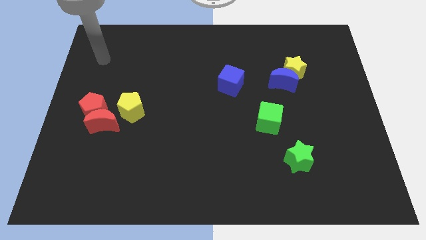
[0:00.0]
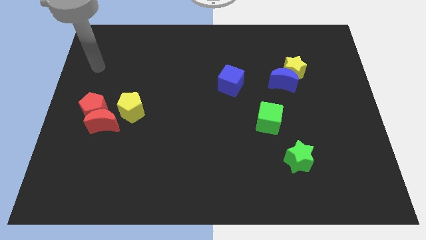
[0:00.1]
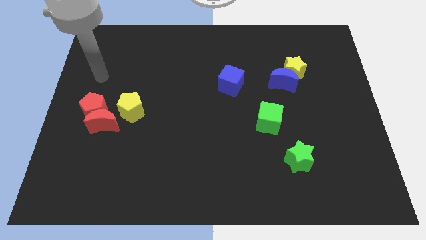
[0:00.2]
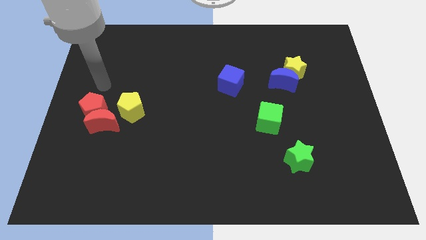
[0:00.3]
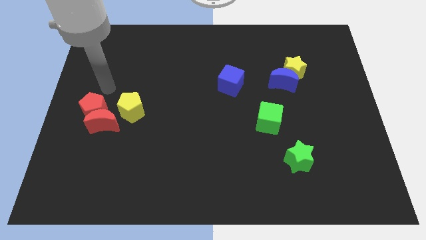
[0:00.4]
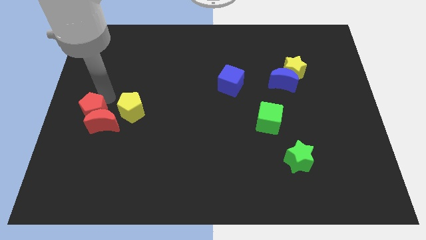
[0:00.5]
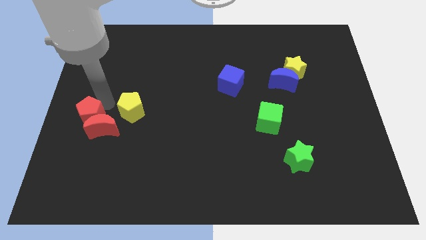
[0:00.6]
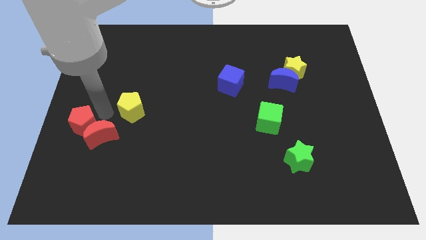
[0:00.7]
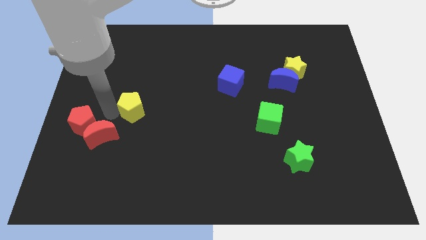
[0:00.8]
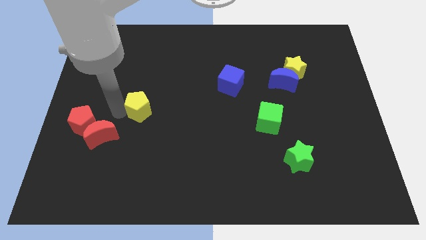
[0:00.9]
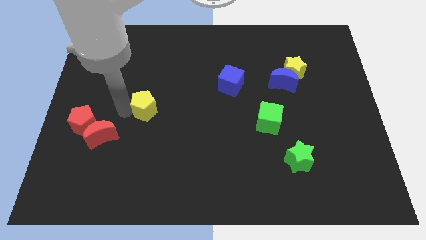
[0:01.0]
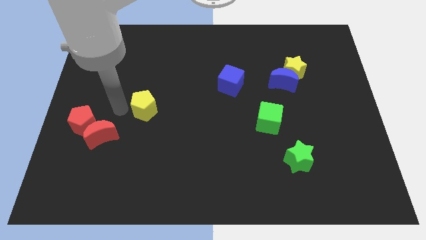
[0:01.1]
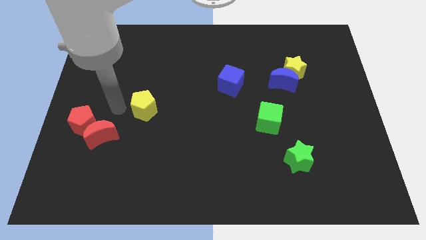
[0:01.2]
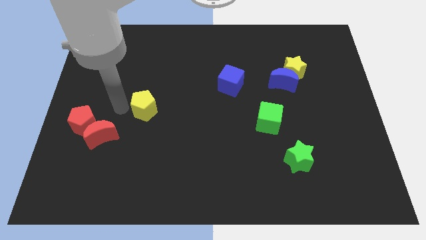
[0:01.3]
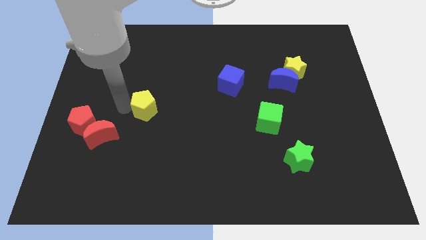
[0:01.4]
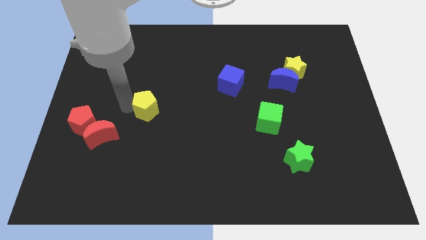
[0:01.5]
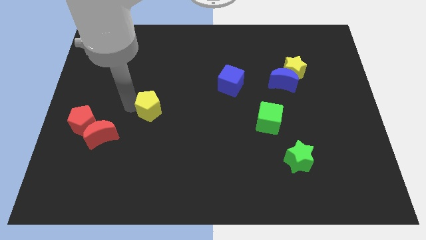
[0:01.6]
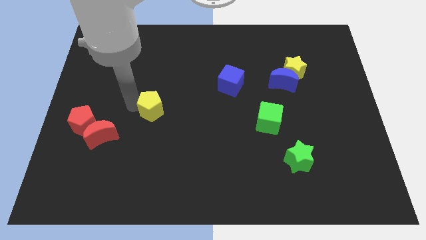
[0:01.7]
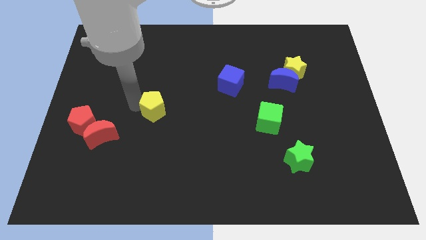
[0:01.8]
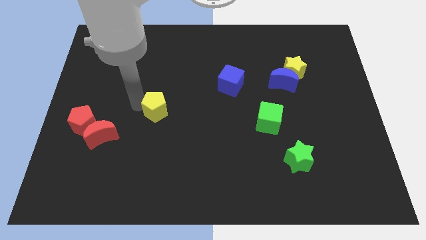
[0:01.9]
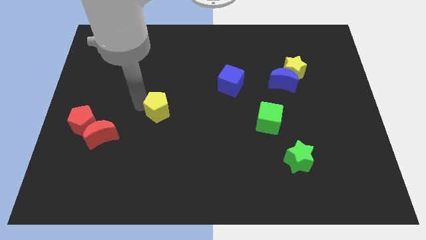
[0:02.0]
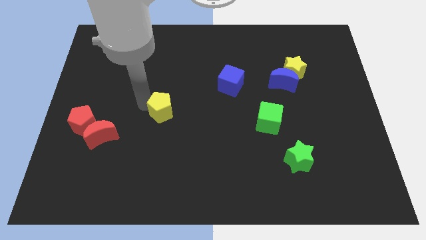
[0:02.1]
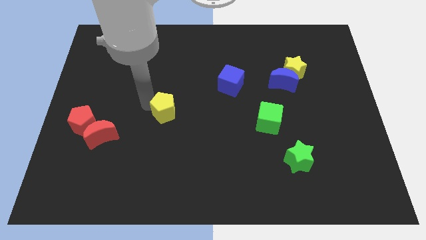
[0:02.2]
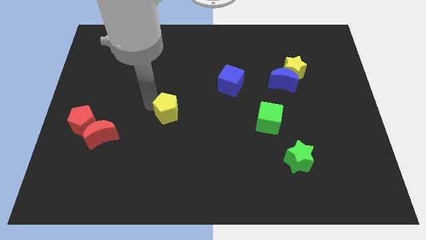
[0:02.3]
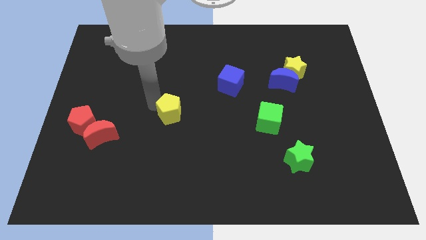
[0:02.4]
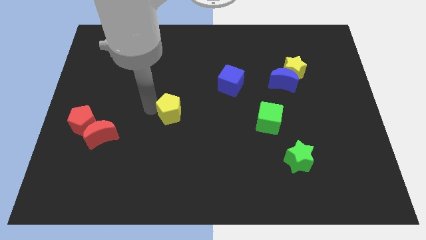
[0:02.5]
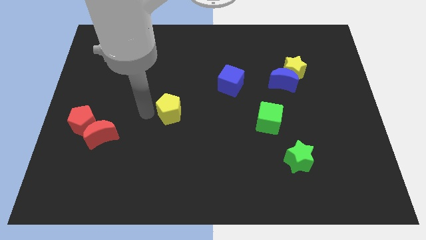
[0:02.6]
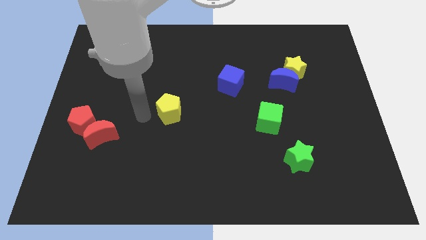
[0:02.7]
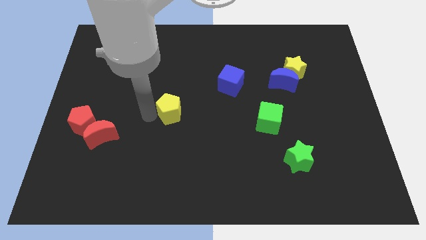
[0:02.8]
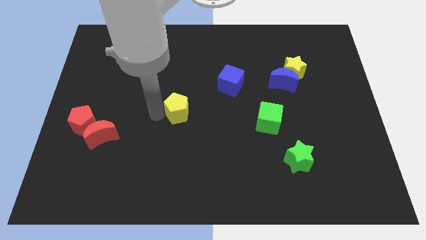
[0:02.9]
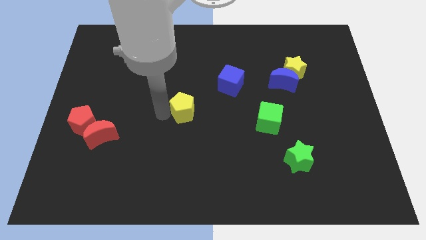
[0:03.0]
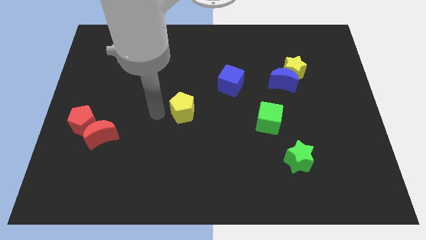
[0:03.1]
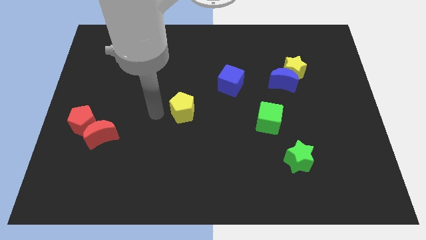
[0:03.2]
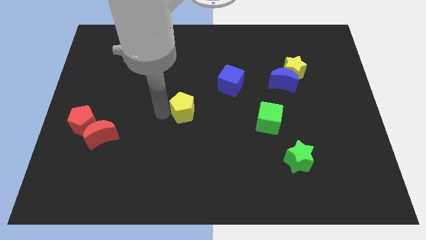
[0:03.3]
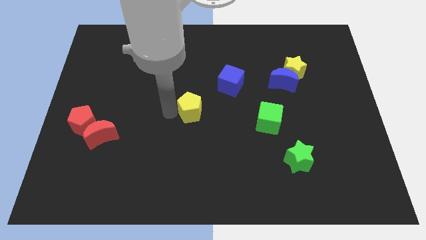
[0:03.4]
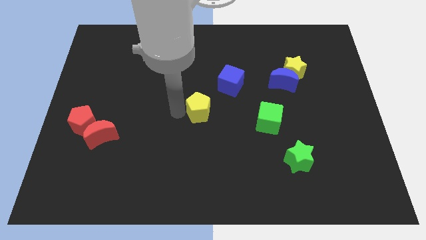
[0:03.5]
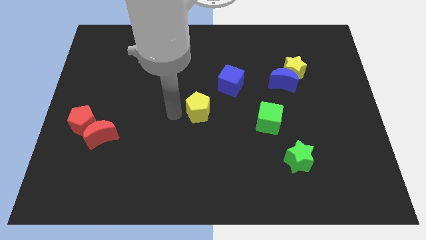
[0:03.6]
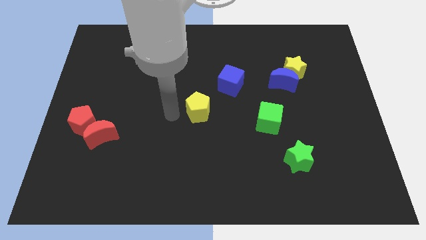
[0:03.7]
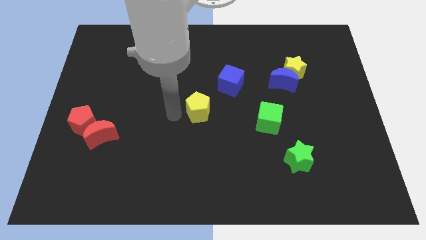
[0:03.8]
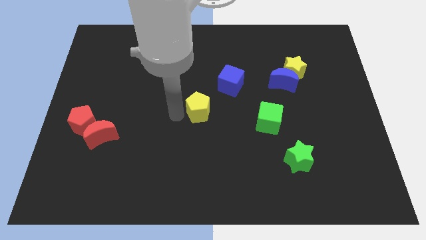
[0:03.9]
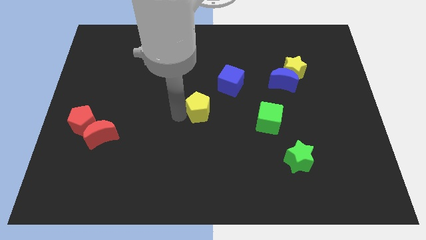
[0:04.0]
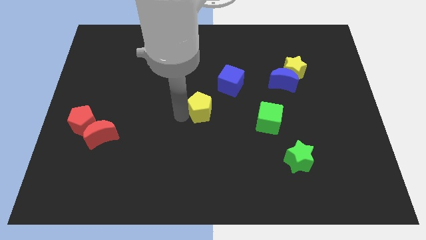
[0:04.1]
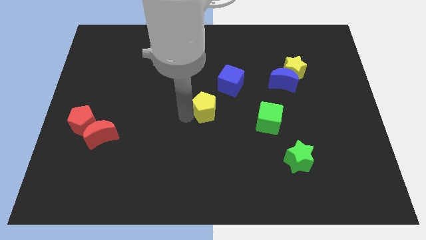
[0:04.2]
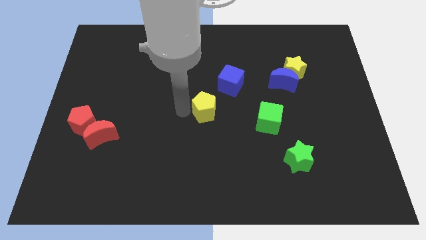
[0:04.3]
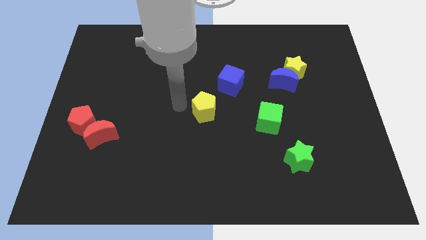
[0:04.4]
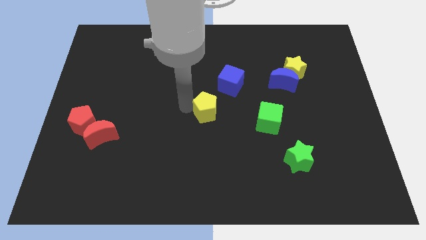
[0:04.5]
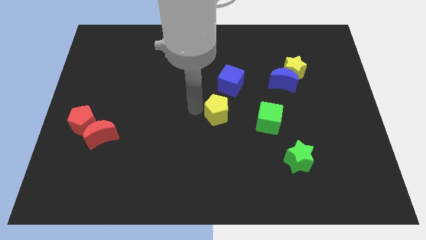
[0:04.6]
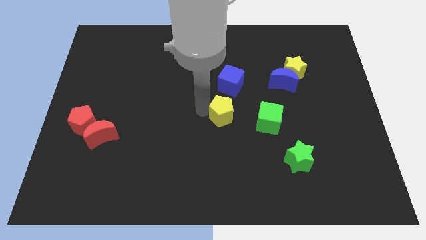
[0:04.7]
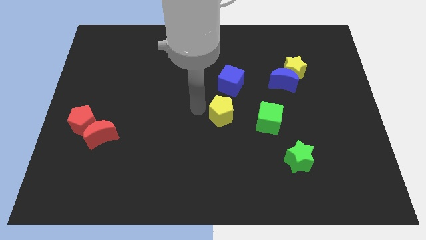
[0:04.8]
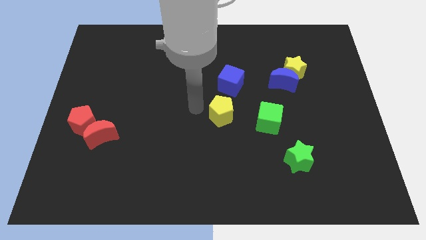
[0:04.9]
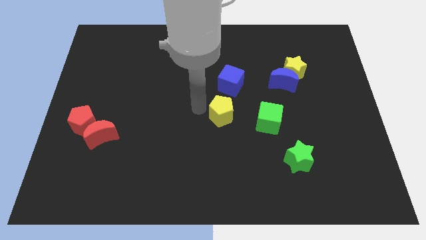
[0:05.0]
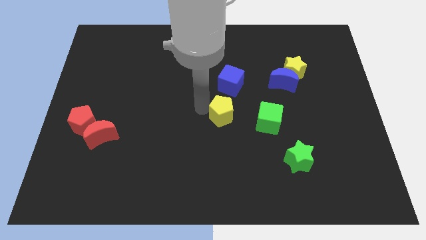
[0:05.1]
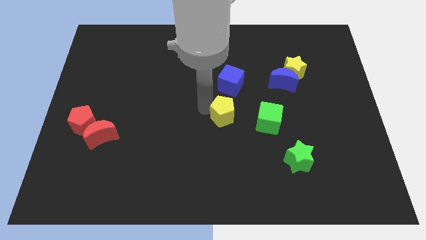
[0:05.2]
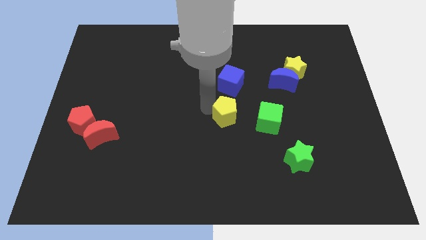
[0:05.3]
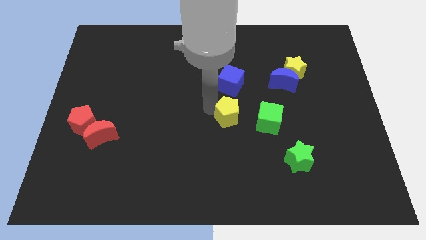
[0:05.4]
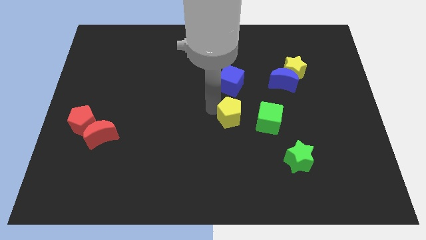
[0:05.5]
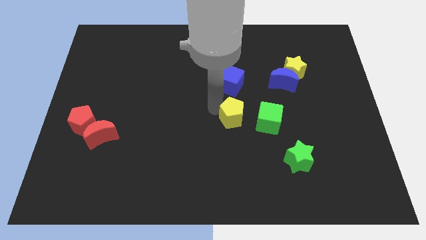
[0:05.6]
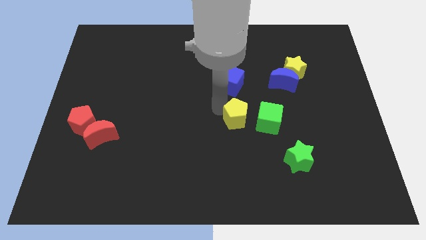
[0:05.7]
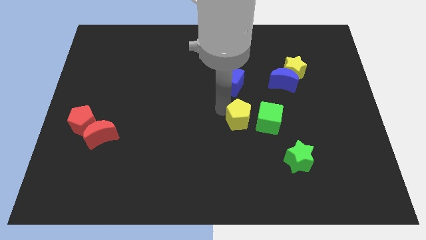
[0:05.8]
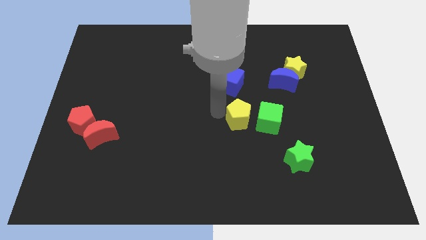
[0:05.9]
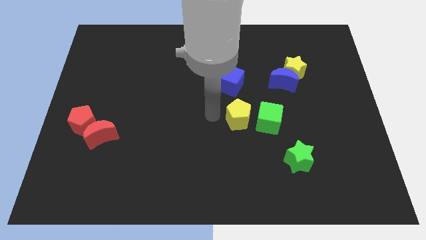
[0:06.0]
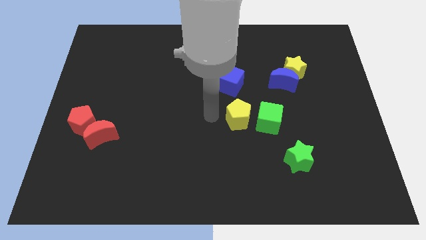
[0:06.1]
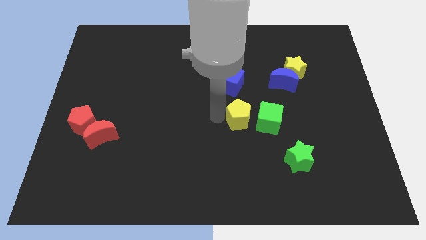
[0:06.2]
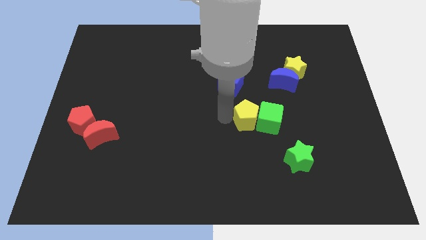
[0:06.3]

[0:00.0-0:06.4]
put the yellow pentagon to the green cube

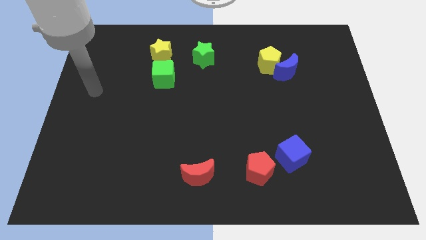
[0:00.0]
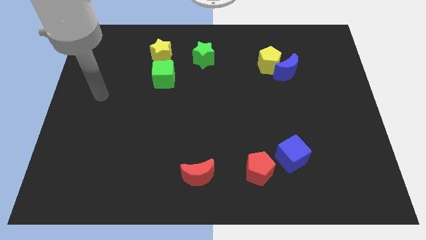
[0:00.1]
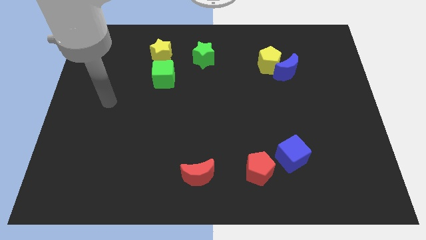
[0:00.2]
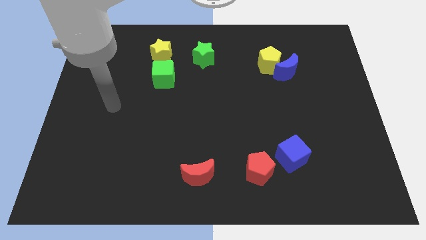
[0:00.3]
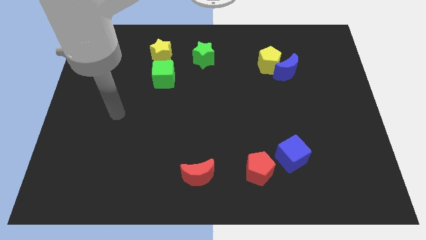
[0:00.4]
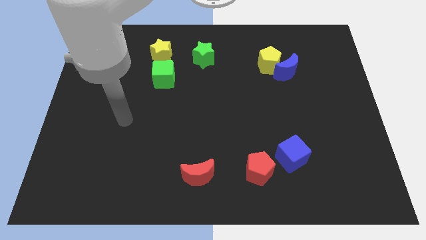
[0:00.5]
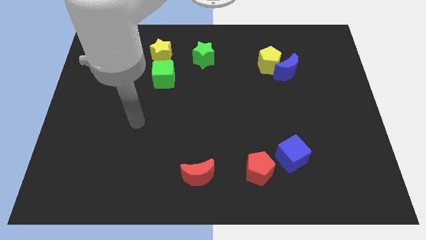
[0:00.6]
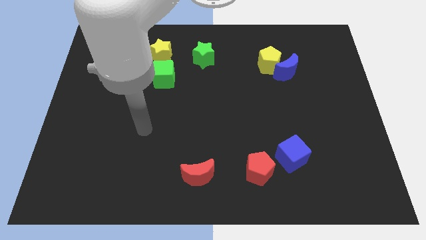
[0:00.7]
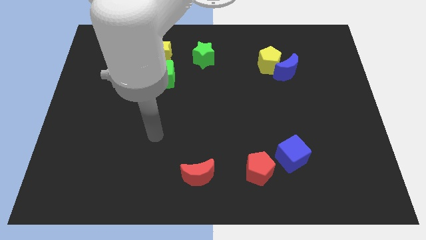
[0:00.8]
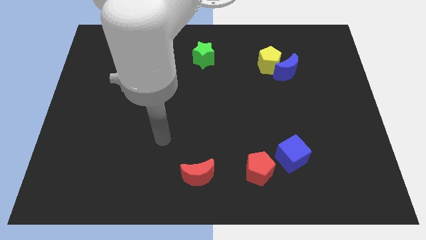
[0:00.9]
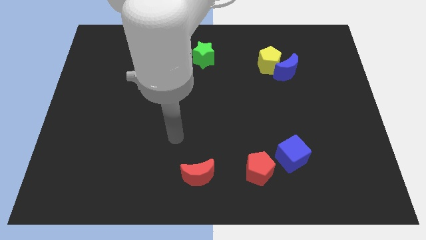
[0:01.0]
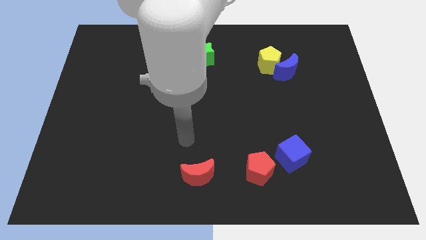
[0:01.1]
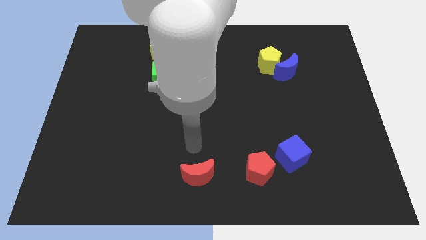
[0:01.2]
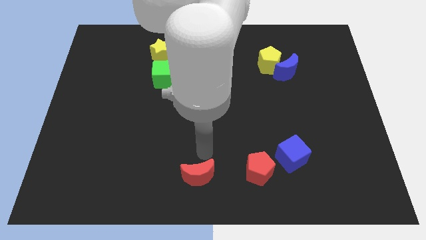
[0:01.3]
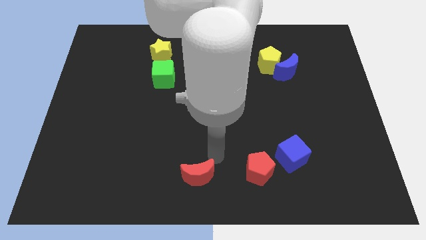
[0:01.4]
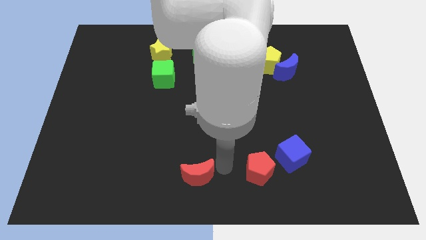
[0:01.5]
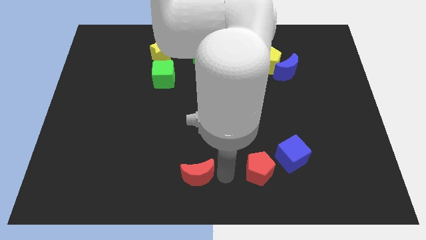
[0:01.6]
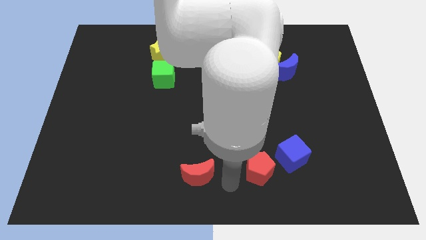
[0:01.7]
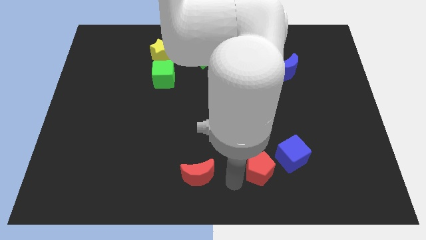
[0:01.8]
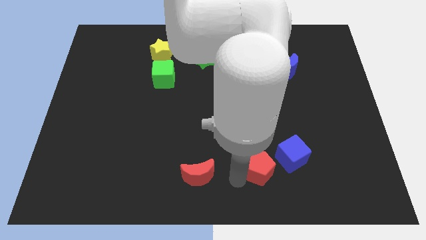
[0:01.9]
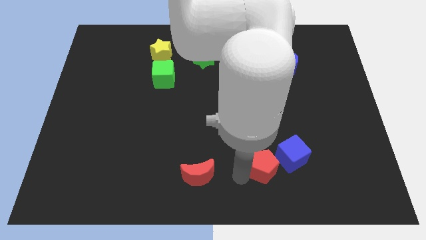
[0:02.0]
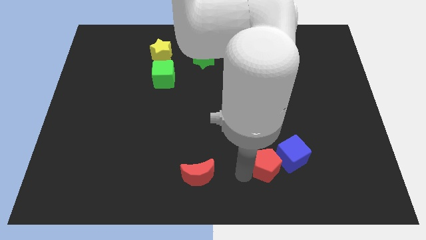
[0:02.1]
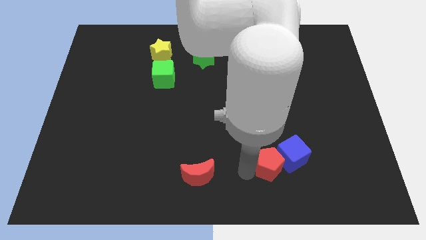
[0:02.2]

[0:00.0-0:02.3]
slide the red pentagon next to the blue cube
